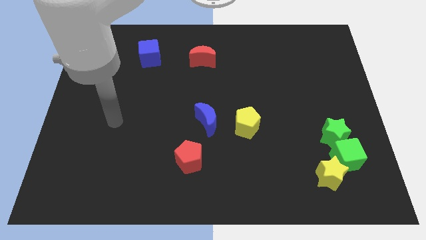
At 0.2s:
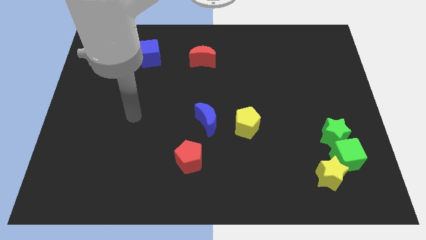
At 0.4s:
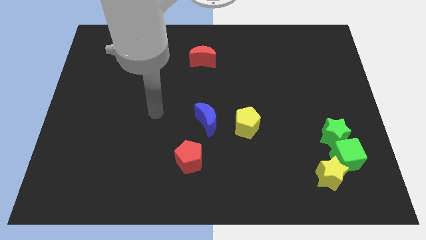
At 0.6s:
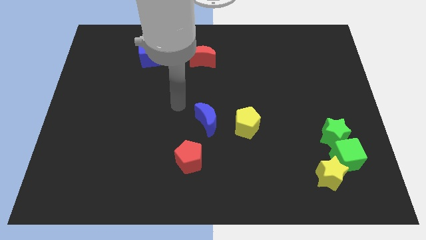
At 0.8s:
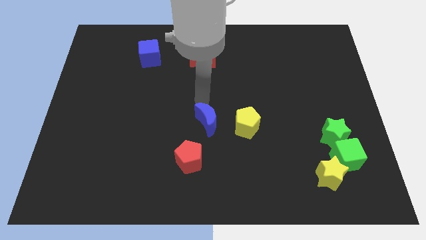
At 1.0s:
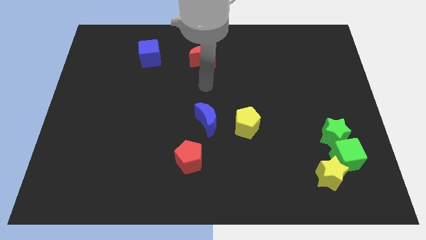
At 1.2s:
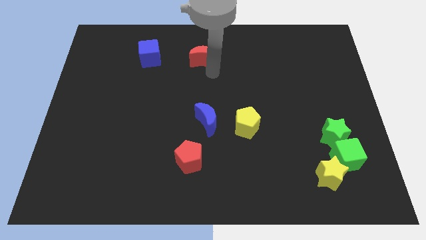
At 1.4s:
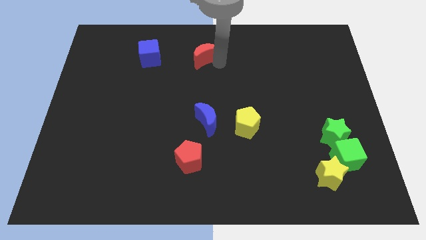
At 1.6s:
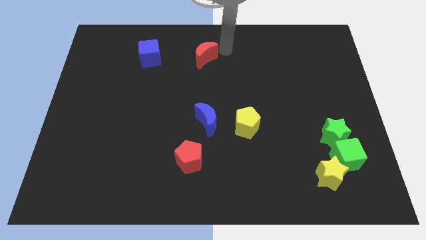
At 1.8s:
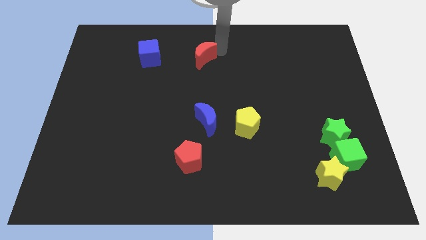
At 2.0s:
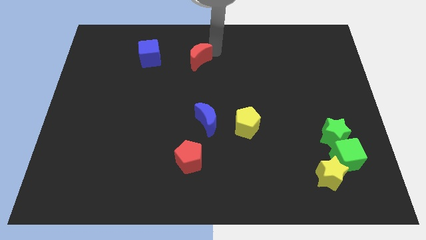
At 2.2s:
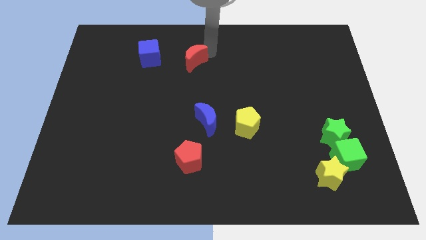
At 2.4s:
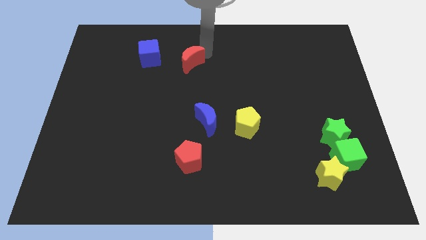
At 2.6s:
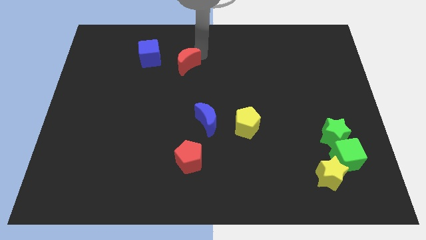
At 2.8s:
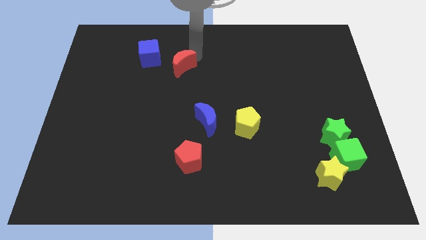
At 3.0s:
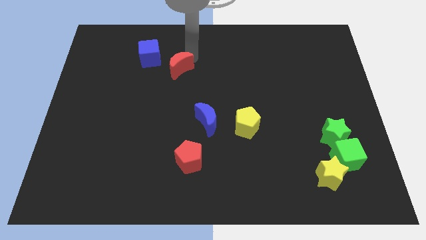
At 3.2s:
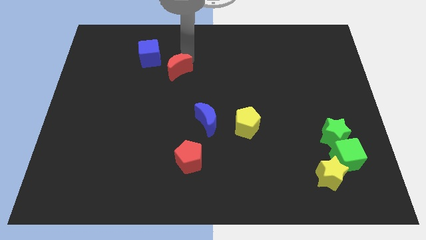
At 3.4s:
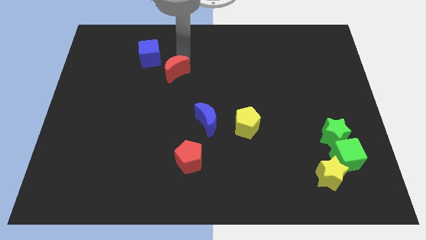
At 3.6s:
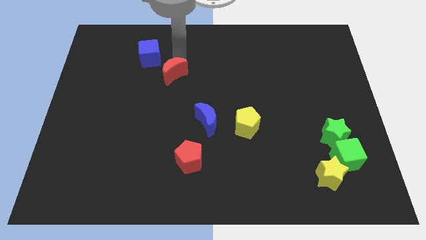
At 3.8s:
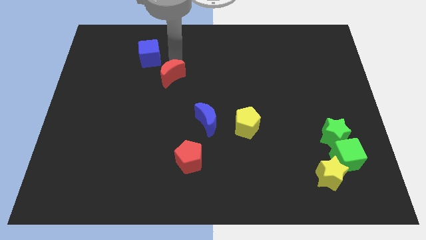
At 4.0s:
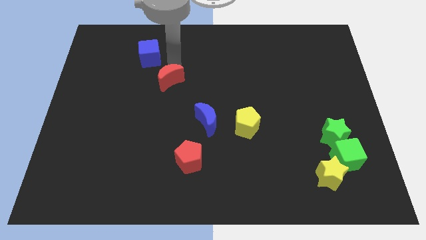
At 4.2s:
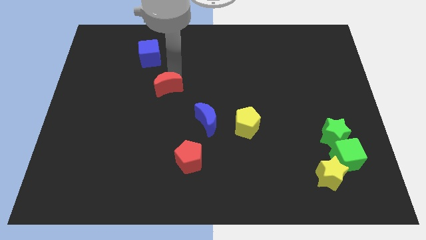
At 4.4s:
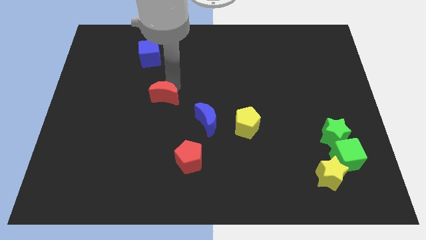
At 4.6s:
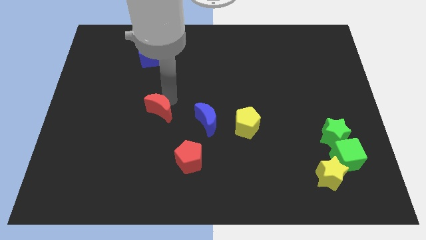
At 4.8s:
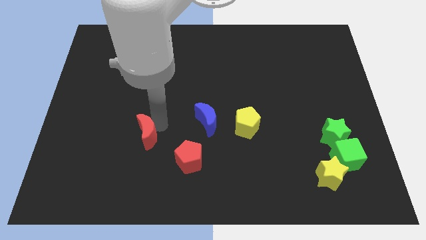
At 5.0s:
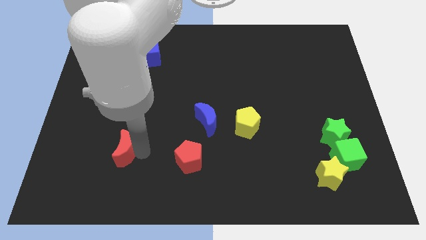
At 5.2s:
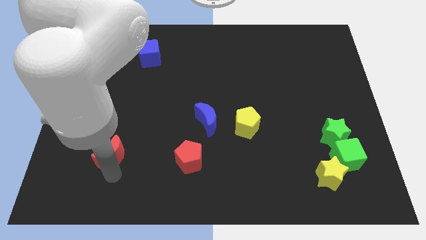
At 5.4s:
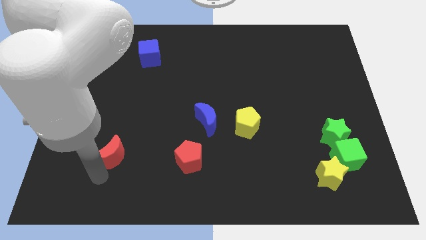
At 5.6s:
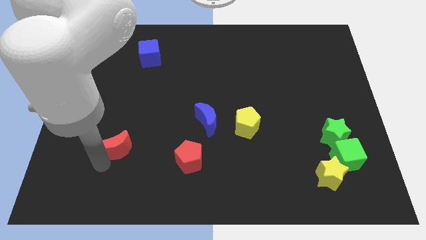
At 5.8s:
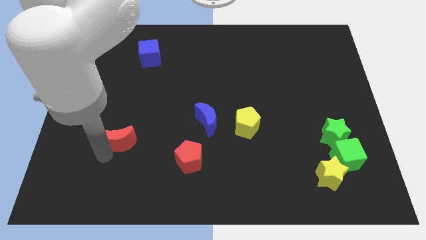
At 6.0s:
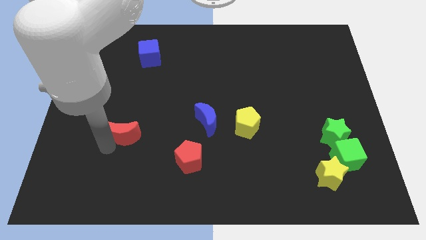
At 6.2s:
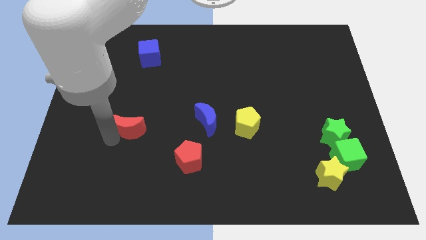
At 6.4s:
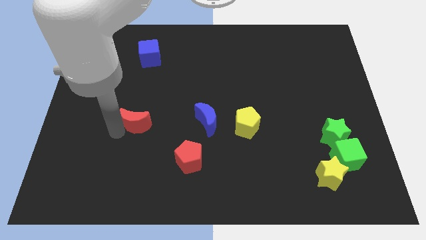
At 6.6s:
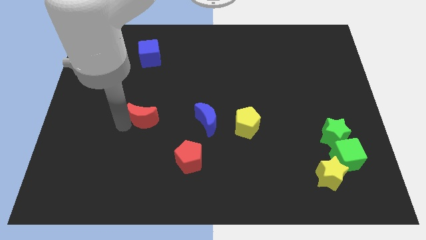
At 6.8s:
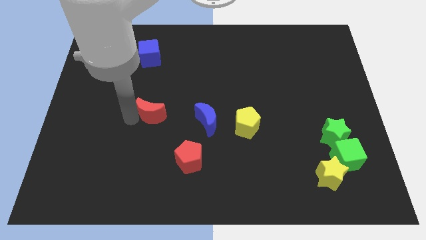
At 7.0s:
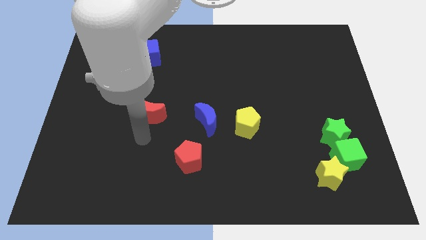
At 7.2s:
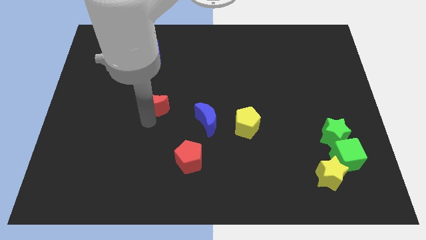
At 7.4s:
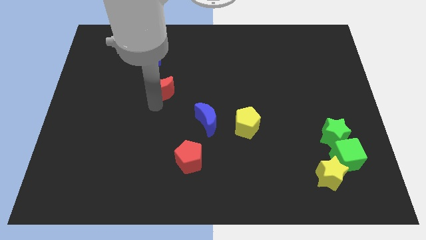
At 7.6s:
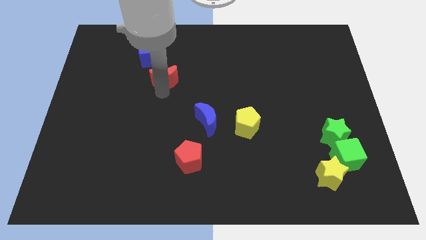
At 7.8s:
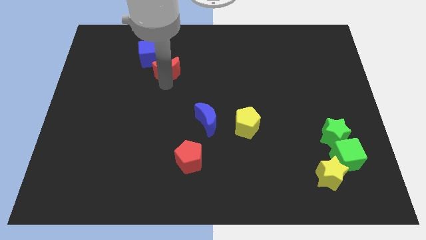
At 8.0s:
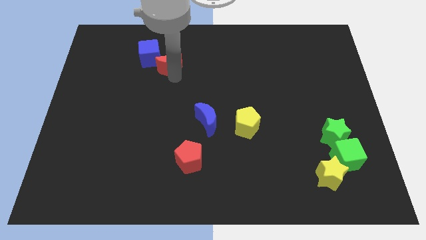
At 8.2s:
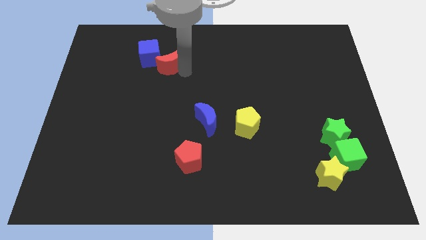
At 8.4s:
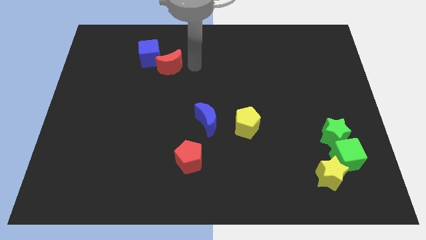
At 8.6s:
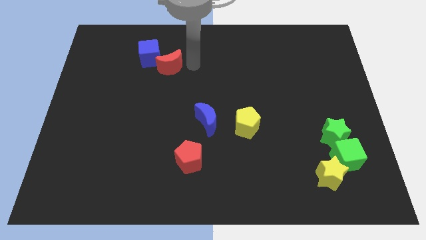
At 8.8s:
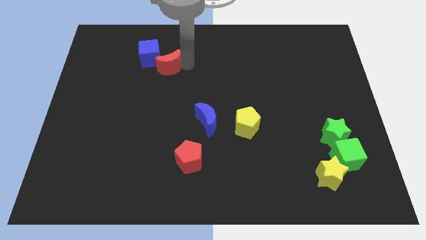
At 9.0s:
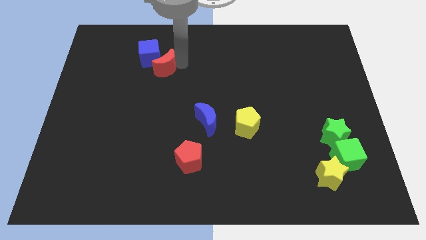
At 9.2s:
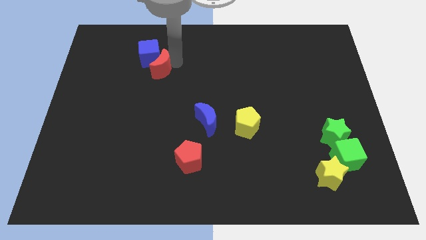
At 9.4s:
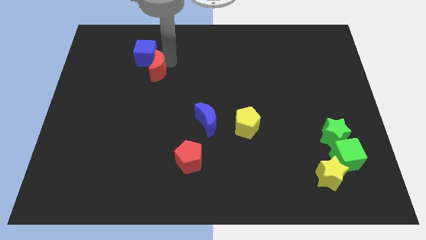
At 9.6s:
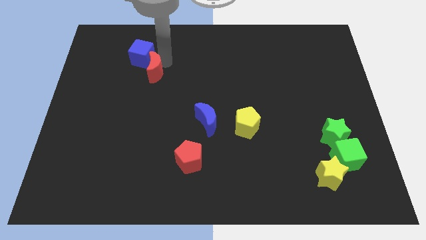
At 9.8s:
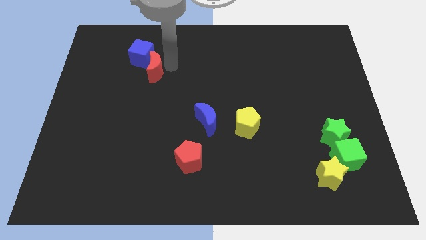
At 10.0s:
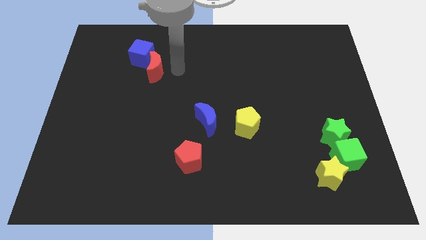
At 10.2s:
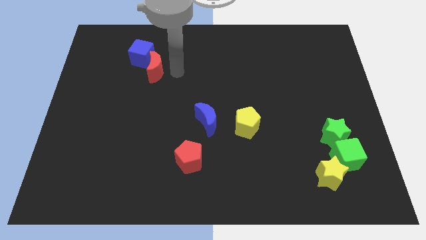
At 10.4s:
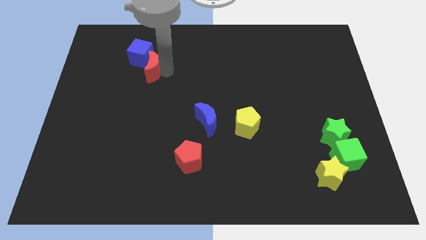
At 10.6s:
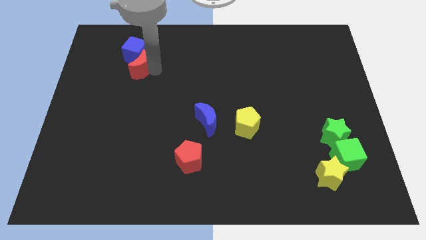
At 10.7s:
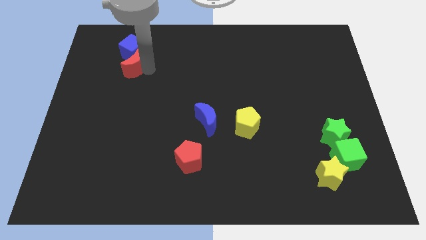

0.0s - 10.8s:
slide the red moon to the bottom left of the blue cube

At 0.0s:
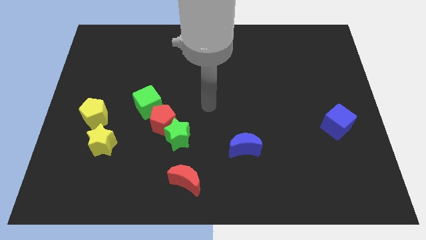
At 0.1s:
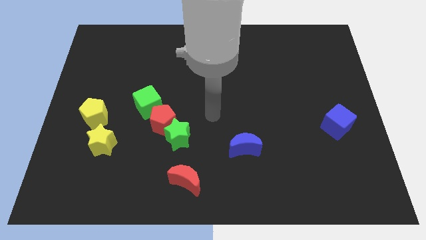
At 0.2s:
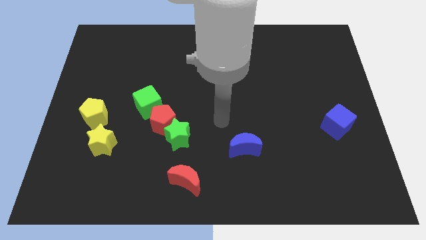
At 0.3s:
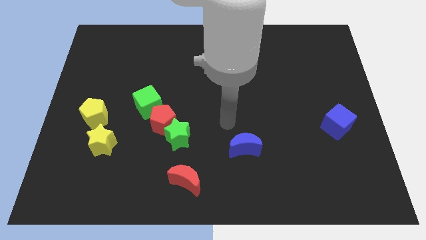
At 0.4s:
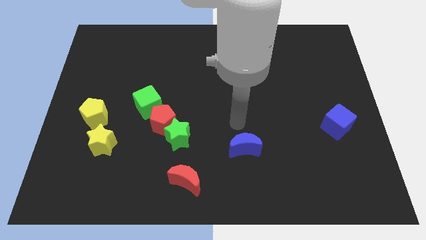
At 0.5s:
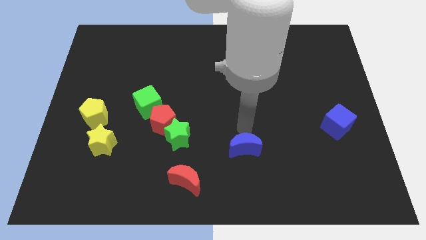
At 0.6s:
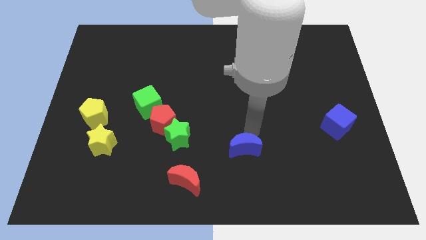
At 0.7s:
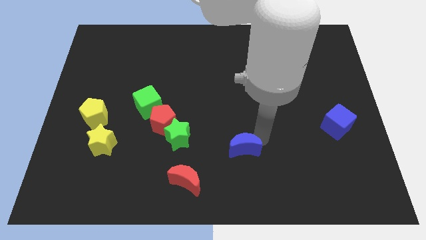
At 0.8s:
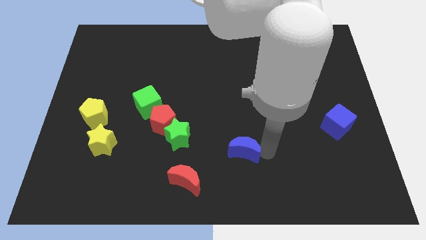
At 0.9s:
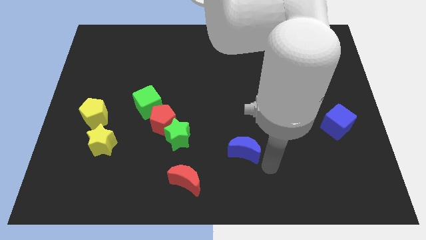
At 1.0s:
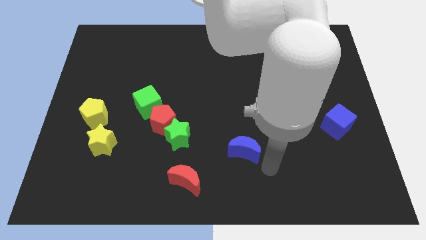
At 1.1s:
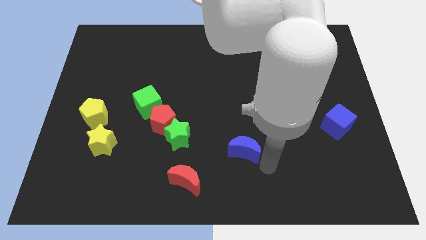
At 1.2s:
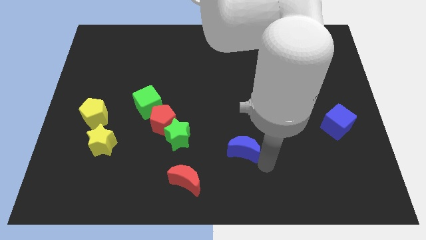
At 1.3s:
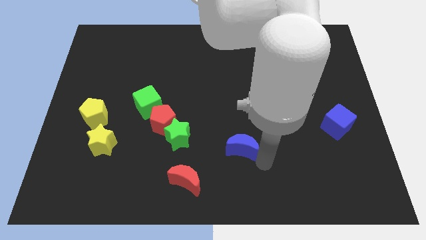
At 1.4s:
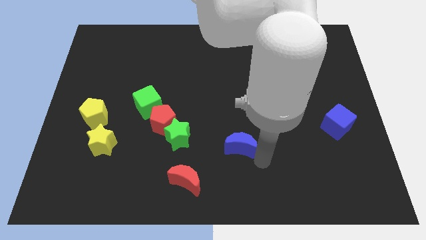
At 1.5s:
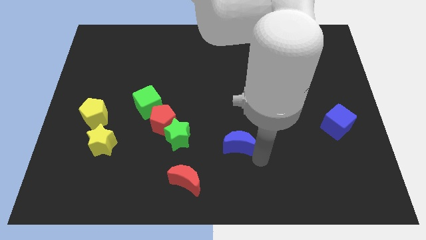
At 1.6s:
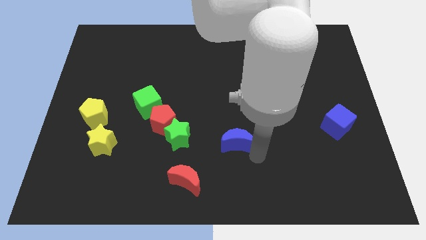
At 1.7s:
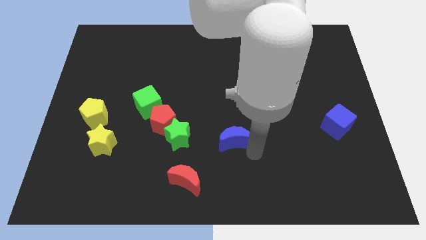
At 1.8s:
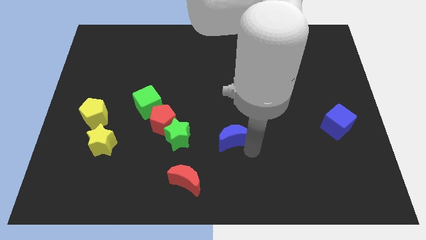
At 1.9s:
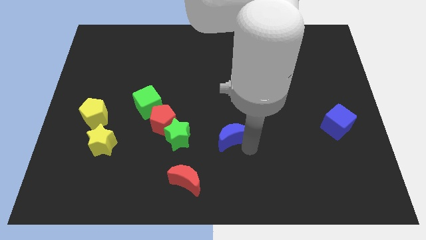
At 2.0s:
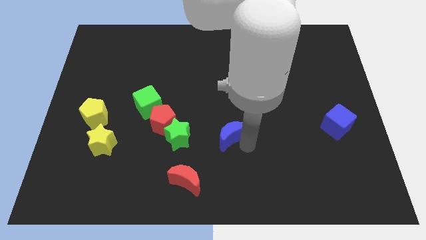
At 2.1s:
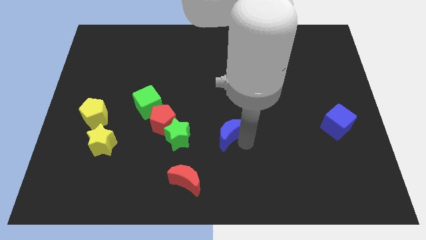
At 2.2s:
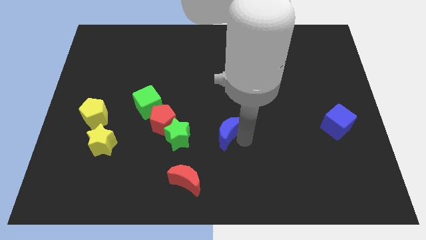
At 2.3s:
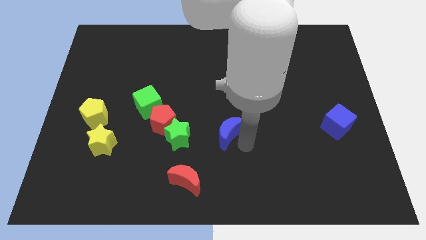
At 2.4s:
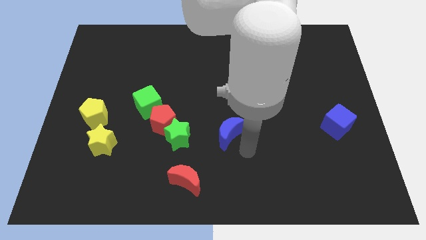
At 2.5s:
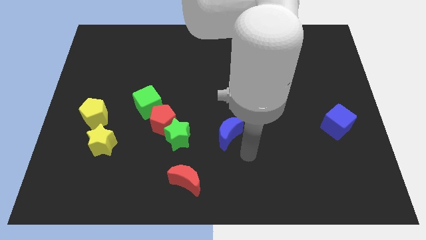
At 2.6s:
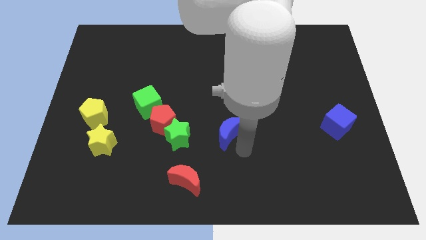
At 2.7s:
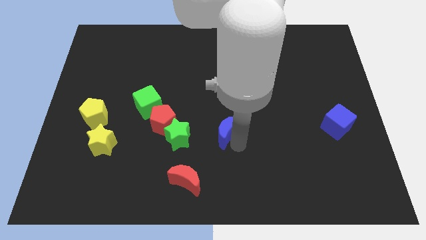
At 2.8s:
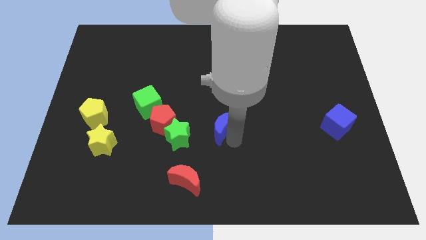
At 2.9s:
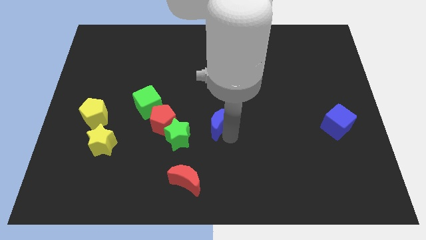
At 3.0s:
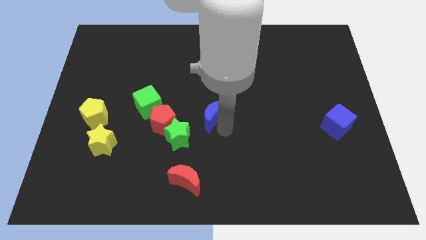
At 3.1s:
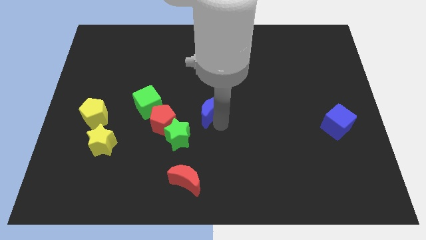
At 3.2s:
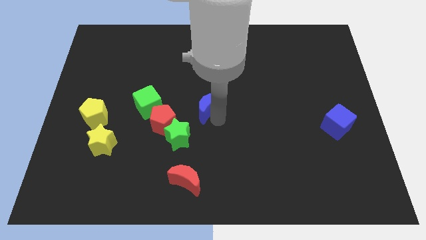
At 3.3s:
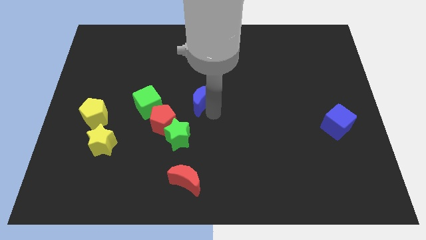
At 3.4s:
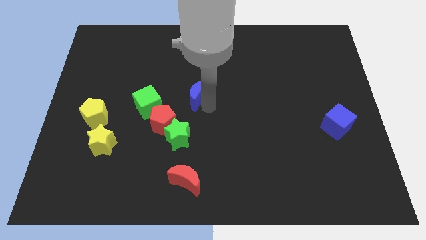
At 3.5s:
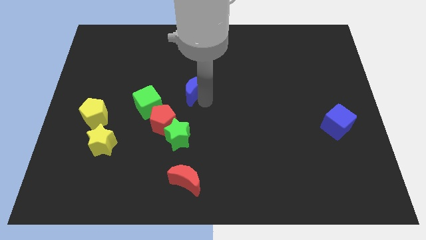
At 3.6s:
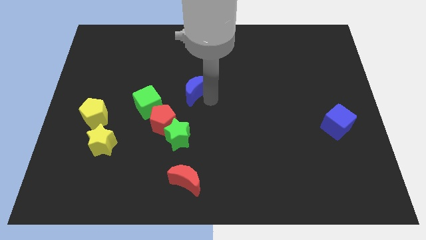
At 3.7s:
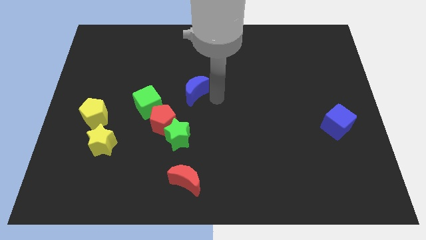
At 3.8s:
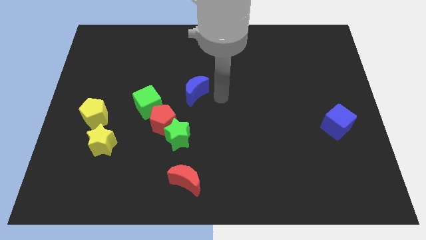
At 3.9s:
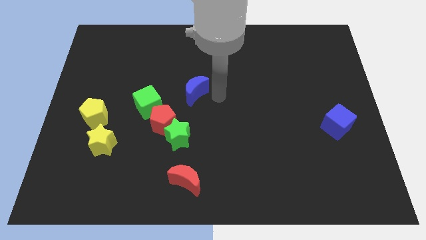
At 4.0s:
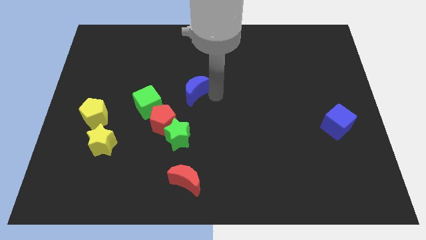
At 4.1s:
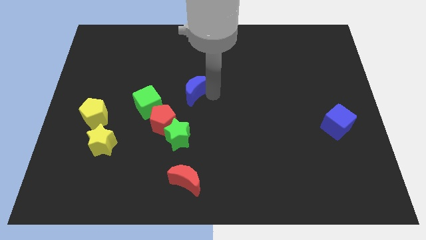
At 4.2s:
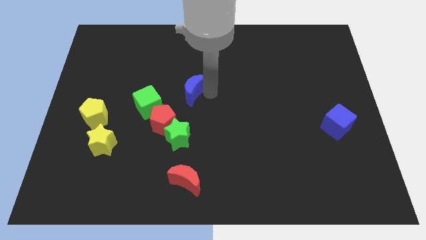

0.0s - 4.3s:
put the blue moon to the top right side of the green cube
